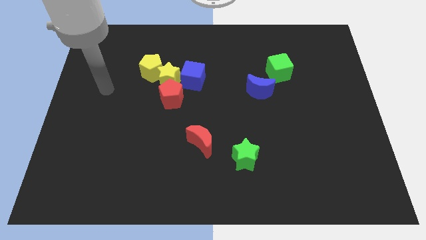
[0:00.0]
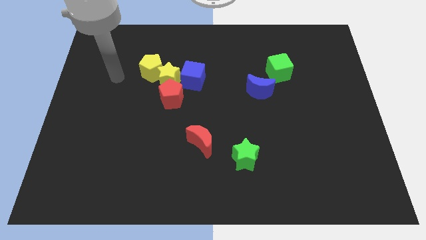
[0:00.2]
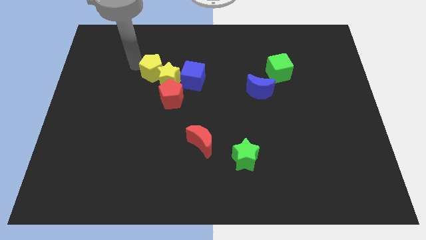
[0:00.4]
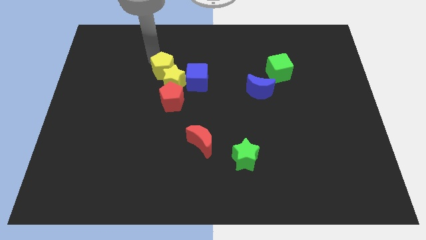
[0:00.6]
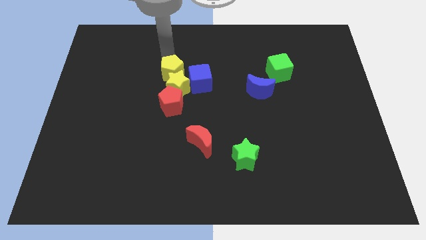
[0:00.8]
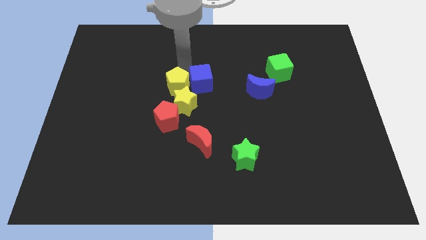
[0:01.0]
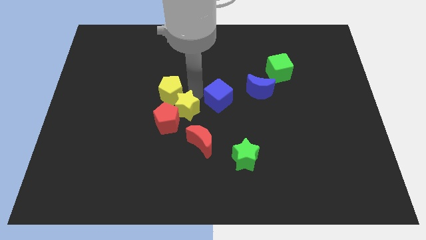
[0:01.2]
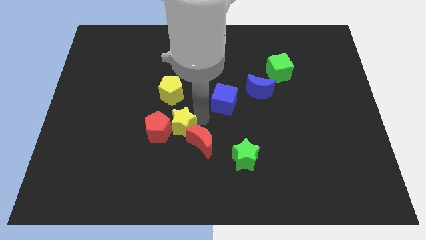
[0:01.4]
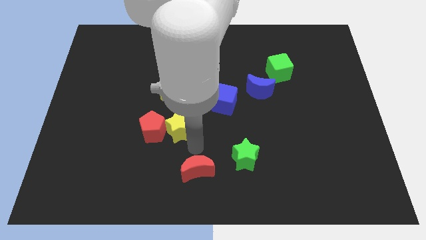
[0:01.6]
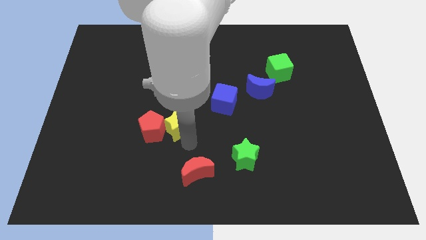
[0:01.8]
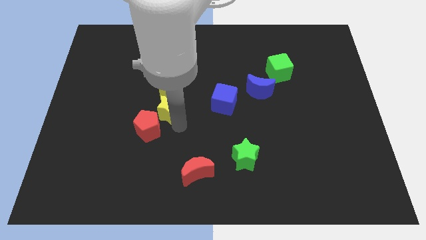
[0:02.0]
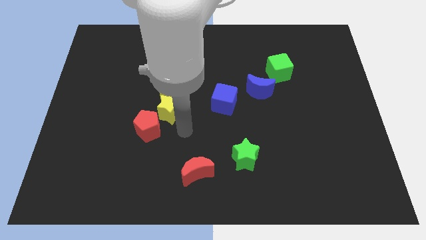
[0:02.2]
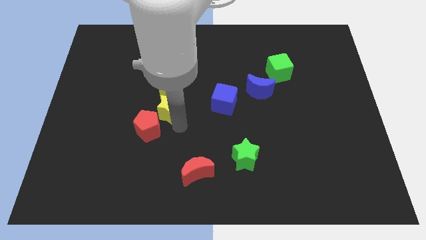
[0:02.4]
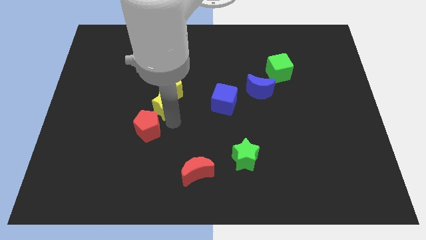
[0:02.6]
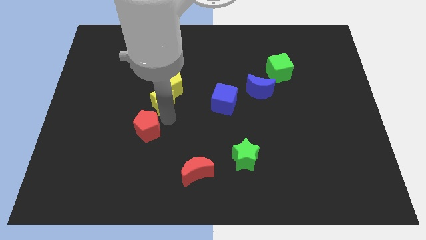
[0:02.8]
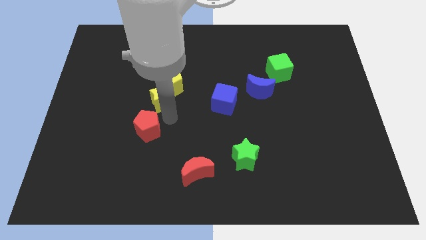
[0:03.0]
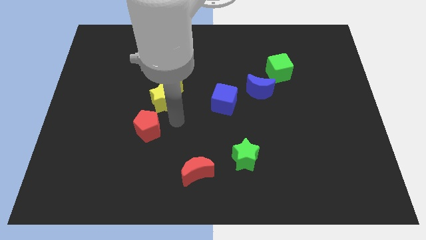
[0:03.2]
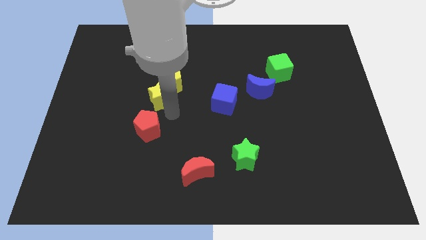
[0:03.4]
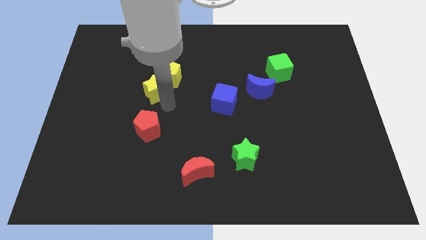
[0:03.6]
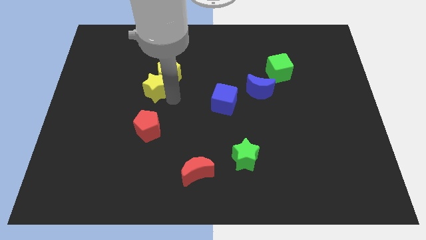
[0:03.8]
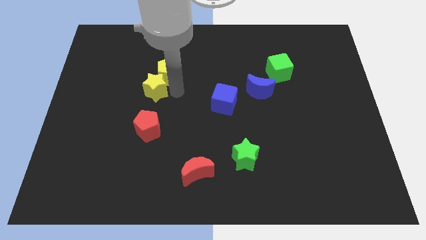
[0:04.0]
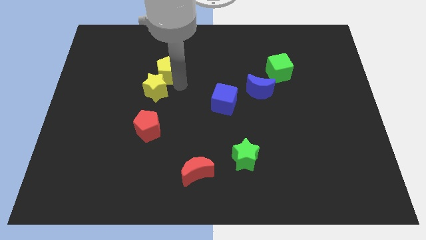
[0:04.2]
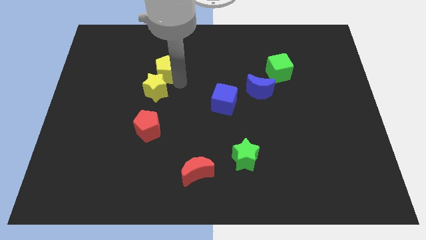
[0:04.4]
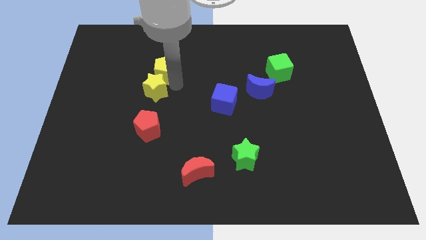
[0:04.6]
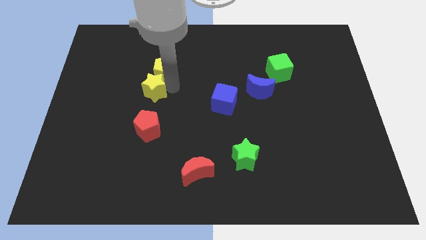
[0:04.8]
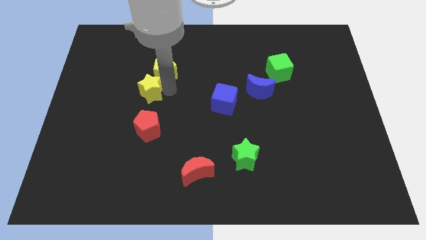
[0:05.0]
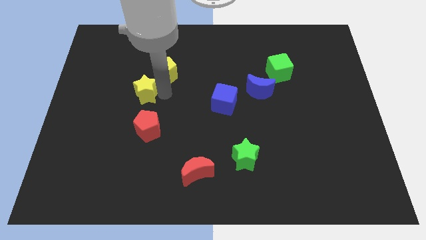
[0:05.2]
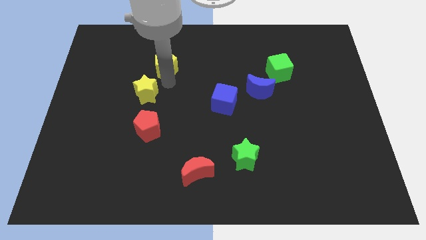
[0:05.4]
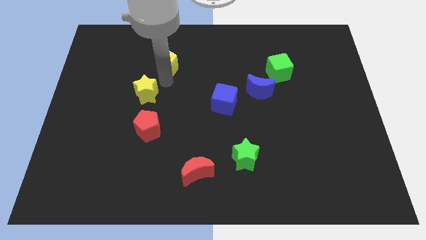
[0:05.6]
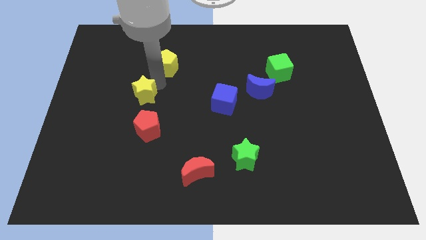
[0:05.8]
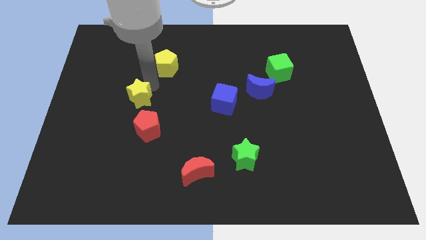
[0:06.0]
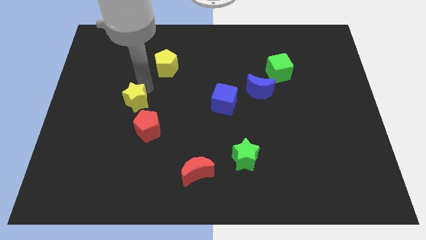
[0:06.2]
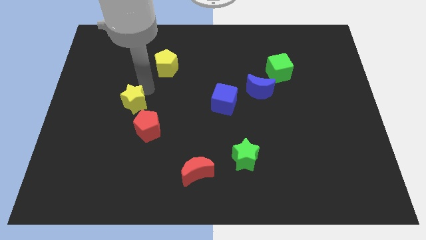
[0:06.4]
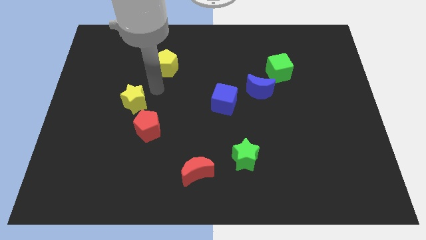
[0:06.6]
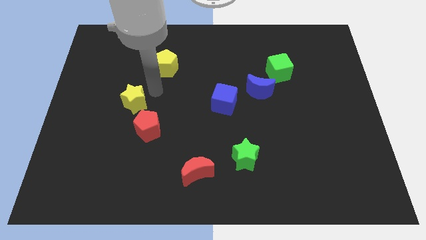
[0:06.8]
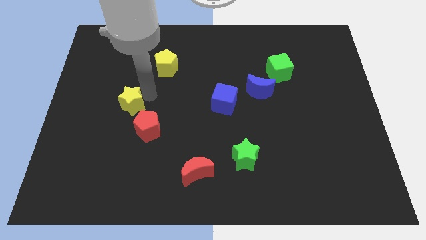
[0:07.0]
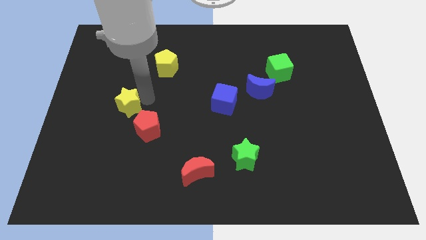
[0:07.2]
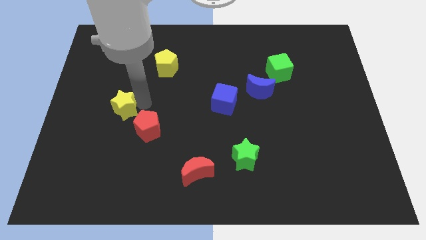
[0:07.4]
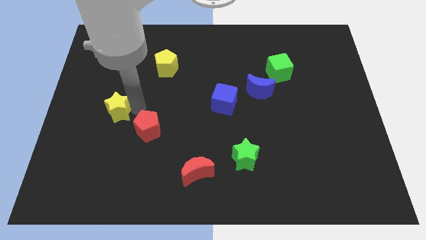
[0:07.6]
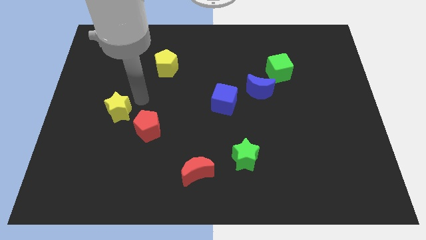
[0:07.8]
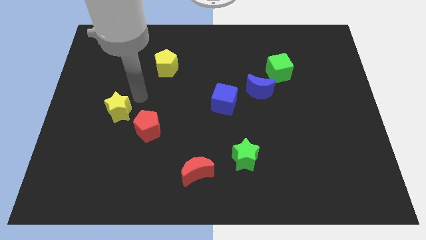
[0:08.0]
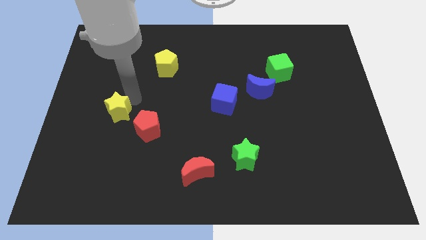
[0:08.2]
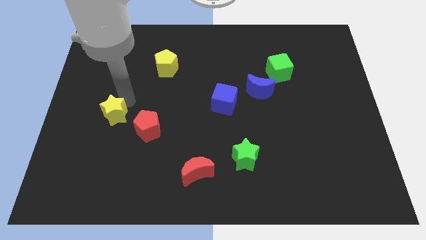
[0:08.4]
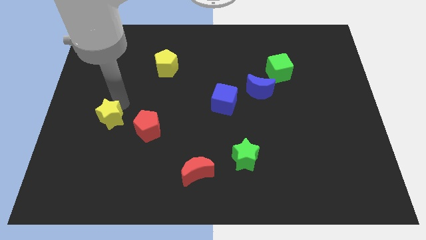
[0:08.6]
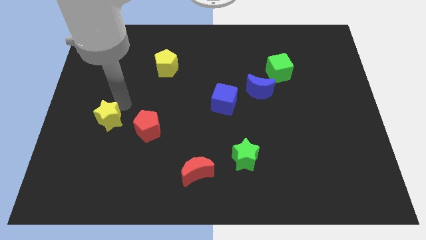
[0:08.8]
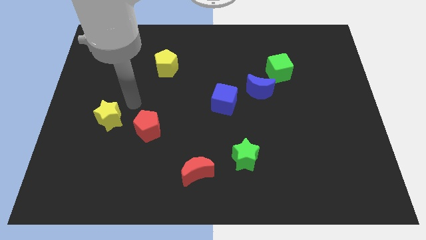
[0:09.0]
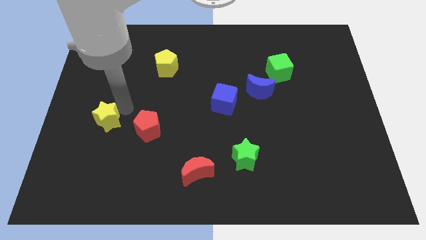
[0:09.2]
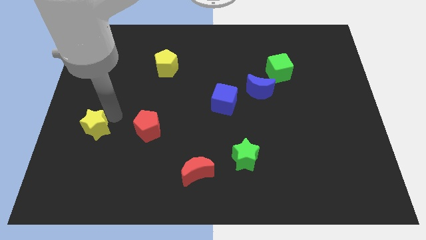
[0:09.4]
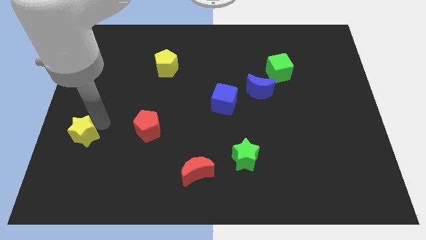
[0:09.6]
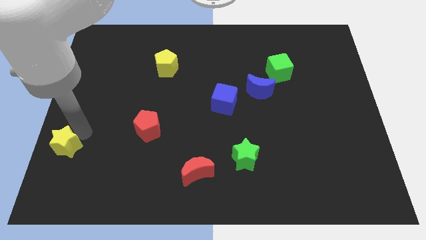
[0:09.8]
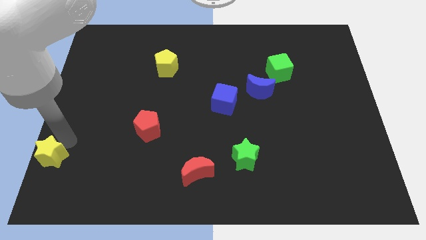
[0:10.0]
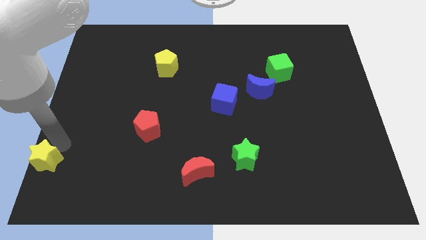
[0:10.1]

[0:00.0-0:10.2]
push the yellow star to the bottom left

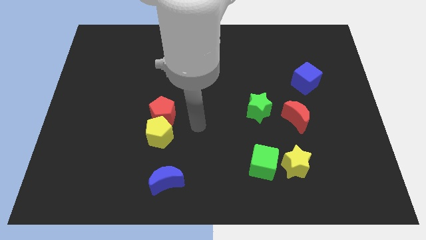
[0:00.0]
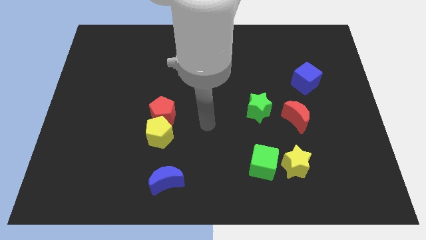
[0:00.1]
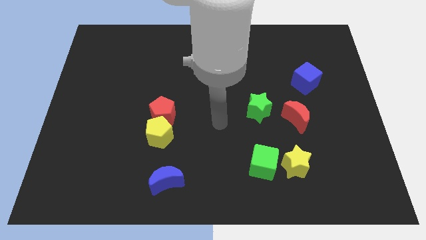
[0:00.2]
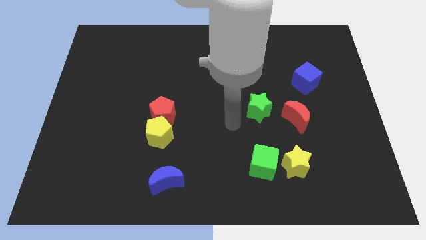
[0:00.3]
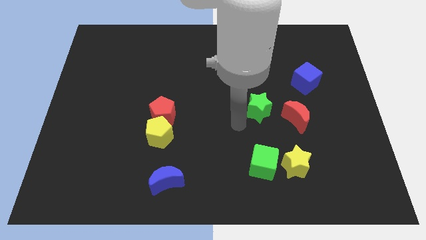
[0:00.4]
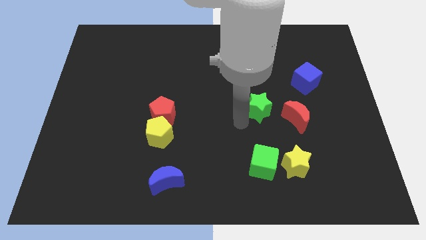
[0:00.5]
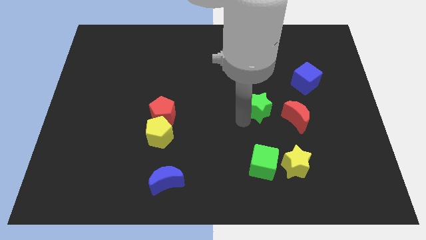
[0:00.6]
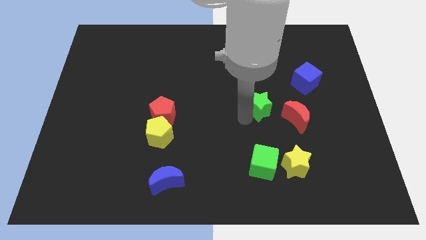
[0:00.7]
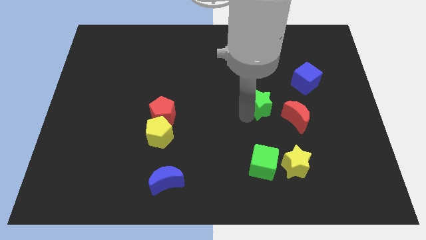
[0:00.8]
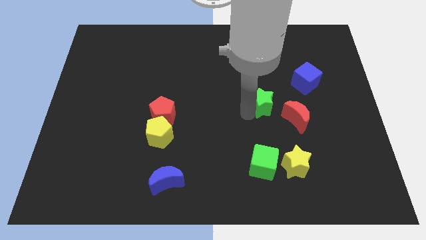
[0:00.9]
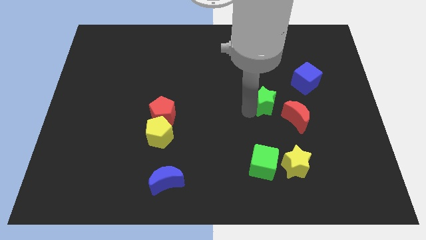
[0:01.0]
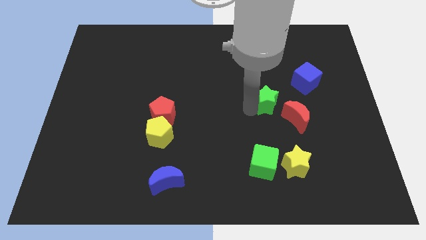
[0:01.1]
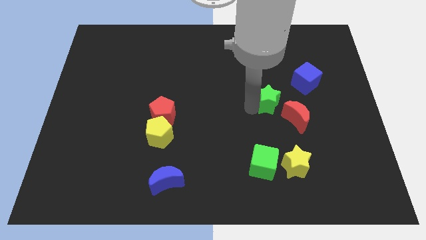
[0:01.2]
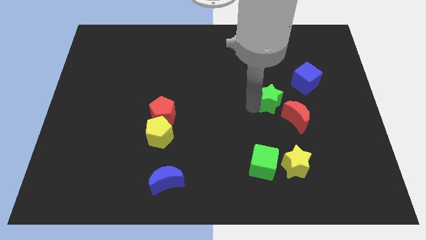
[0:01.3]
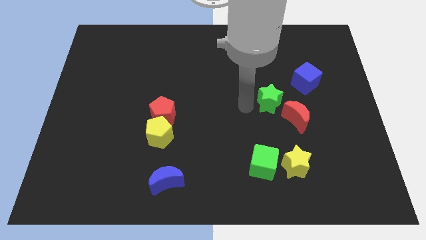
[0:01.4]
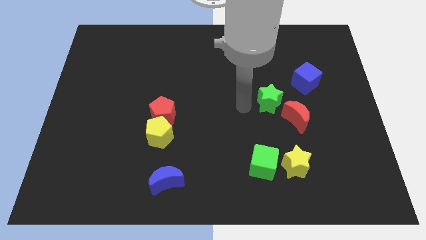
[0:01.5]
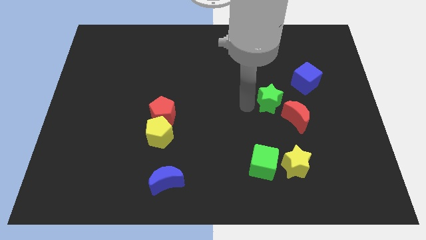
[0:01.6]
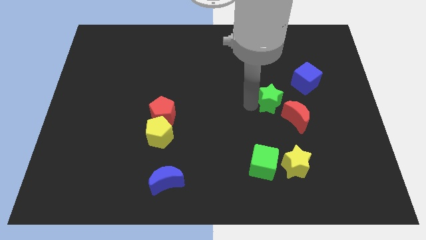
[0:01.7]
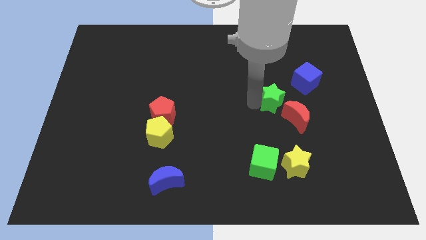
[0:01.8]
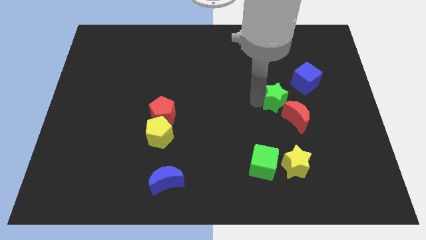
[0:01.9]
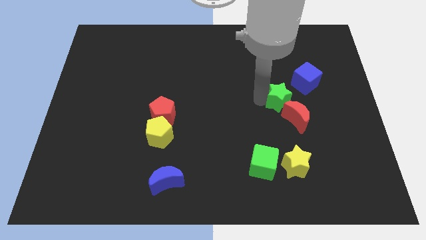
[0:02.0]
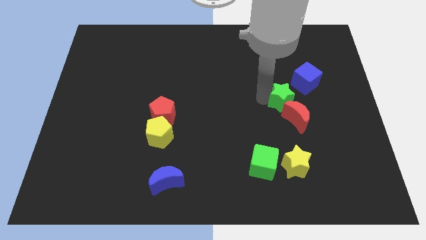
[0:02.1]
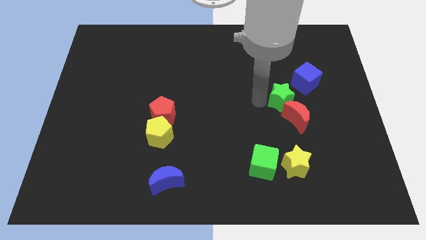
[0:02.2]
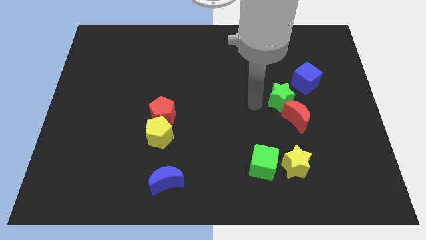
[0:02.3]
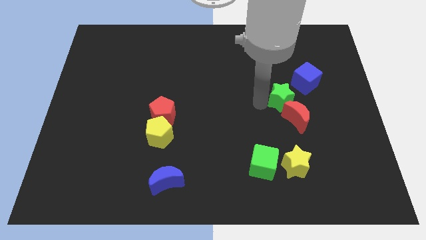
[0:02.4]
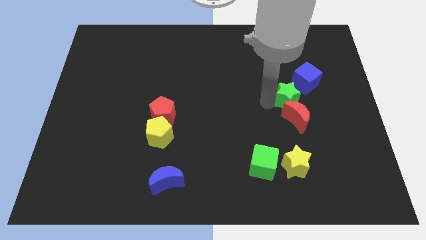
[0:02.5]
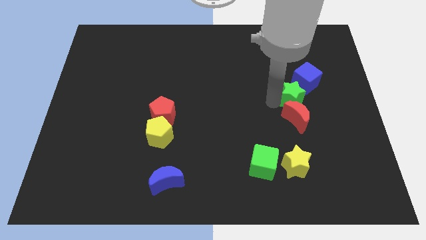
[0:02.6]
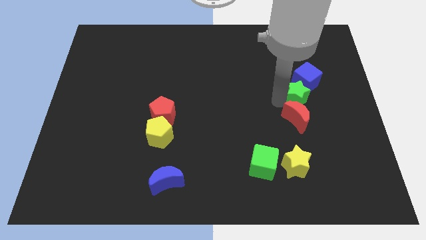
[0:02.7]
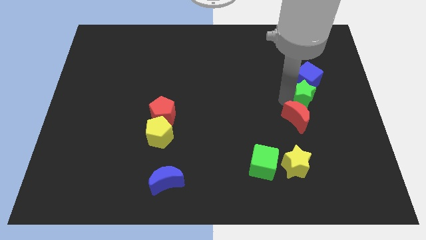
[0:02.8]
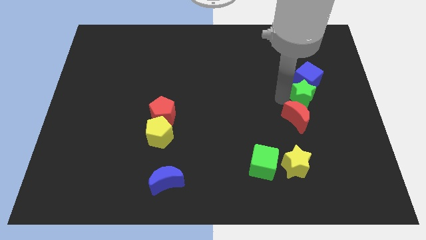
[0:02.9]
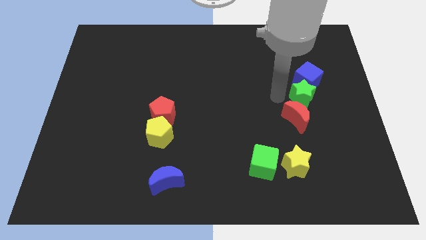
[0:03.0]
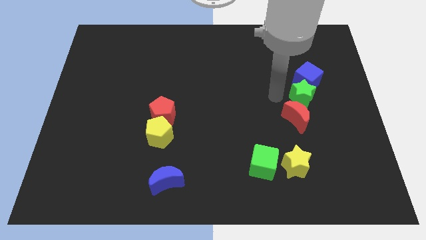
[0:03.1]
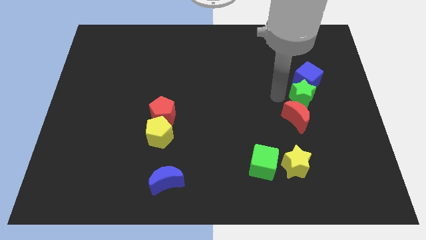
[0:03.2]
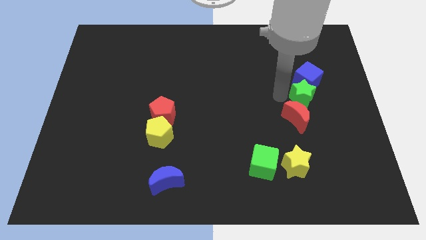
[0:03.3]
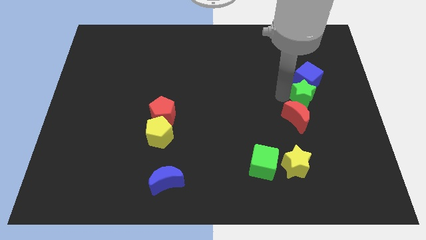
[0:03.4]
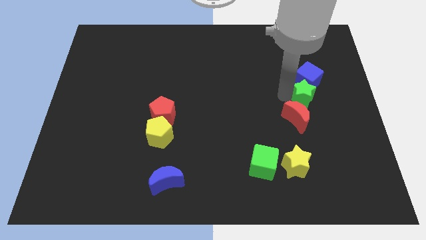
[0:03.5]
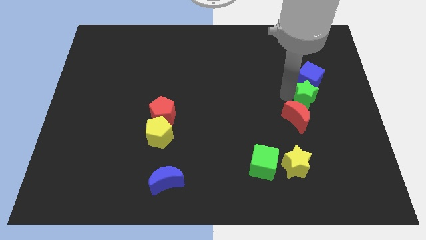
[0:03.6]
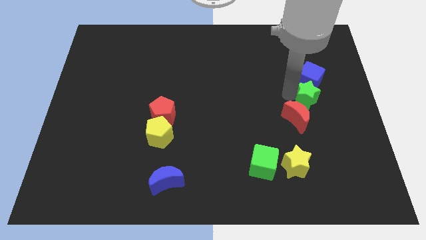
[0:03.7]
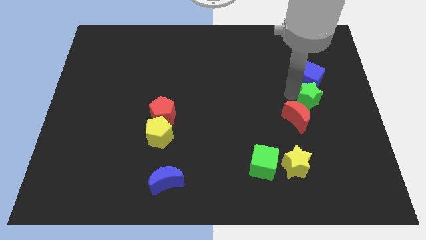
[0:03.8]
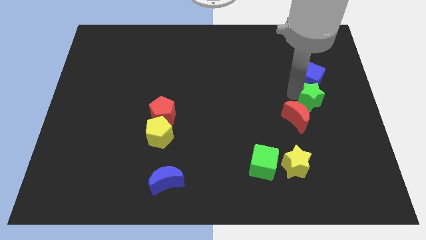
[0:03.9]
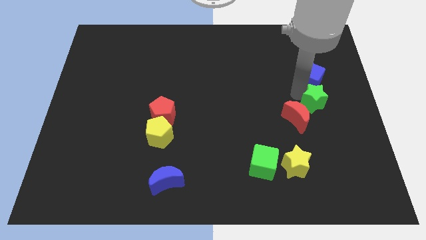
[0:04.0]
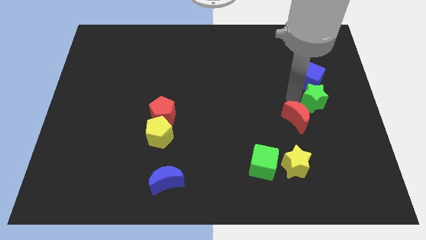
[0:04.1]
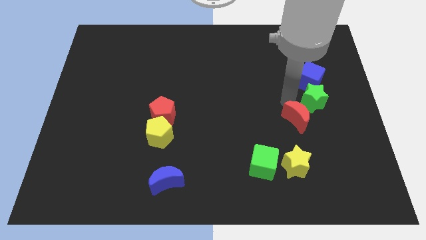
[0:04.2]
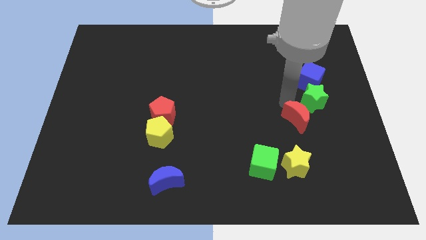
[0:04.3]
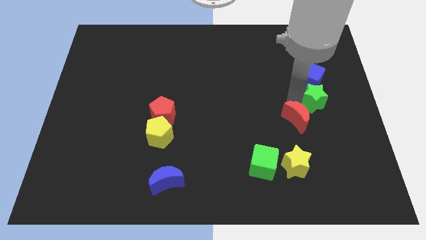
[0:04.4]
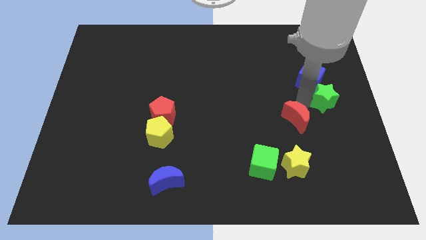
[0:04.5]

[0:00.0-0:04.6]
slide the green star to the center right
